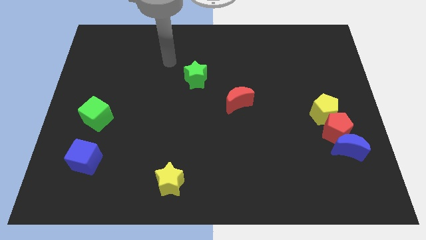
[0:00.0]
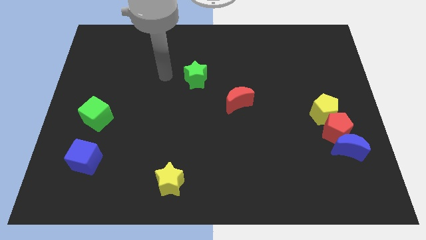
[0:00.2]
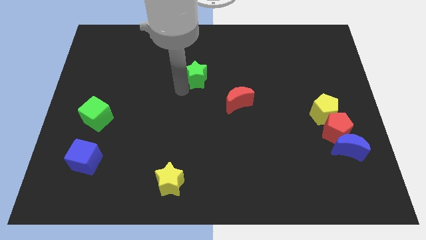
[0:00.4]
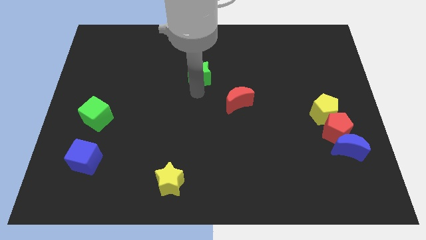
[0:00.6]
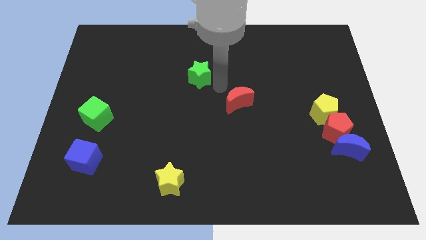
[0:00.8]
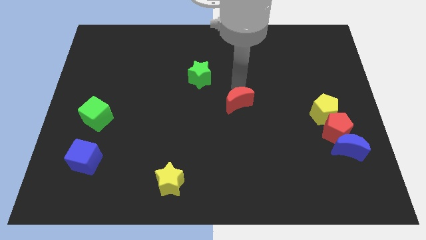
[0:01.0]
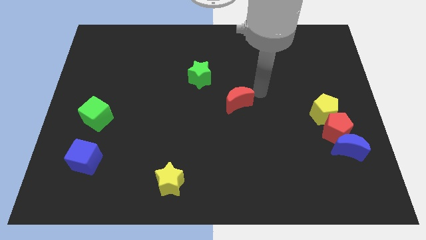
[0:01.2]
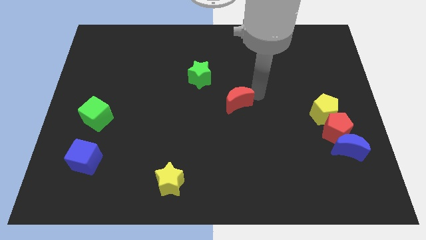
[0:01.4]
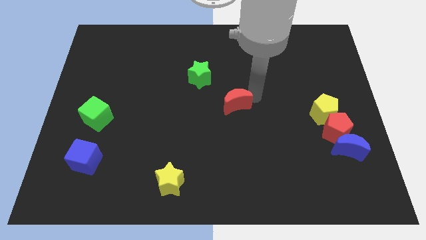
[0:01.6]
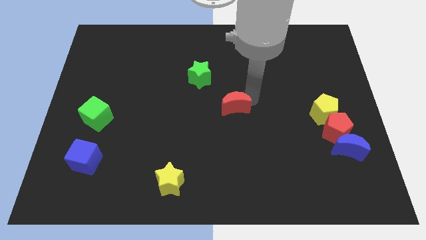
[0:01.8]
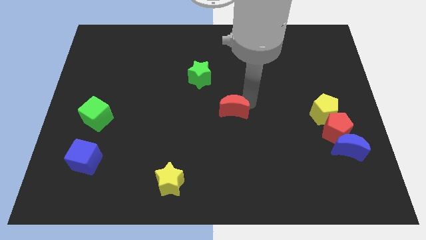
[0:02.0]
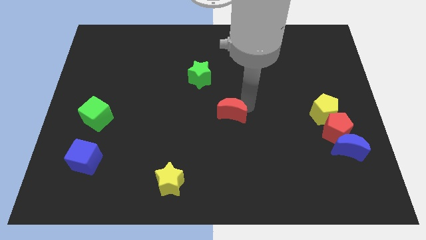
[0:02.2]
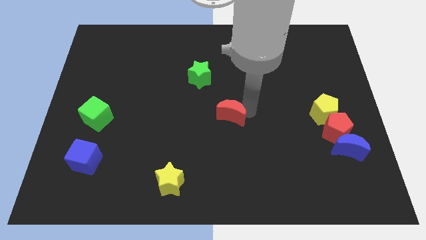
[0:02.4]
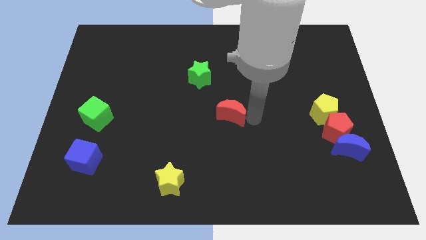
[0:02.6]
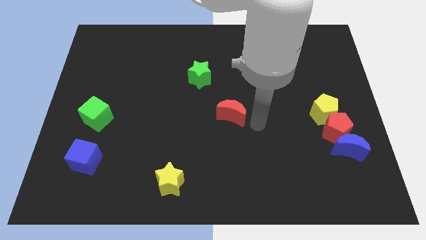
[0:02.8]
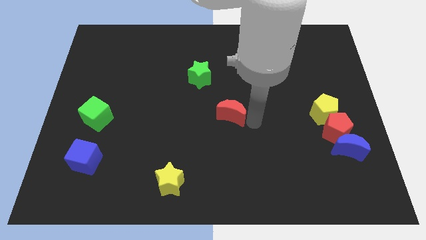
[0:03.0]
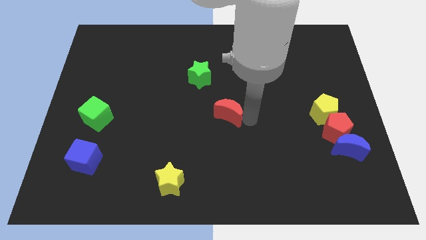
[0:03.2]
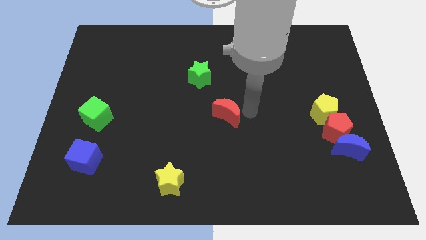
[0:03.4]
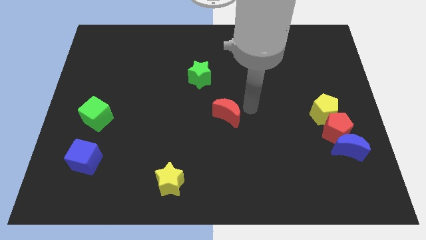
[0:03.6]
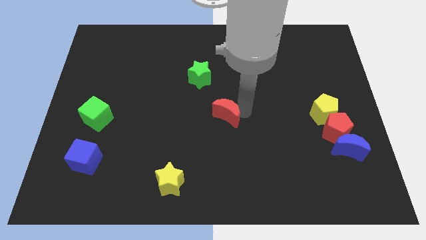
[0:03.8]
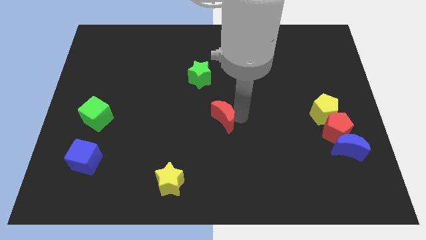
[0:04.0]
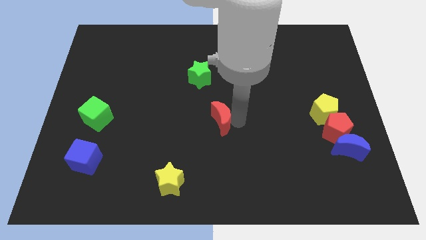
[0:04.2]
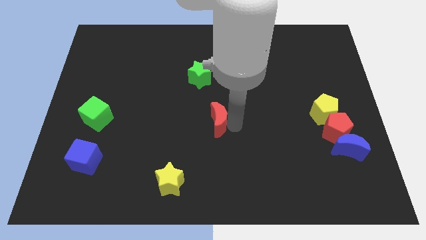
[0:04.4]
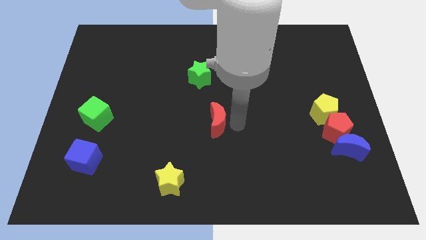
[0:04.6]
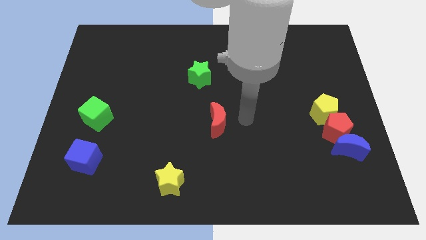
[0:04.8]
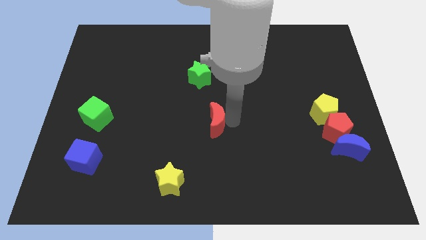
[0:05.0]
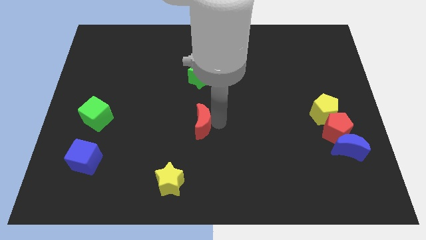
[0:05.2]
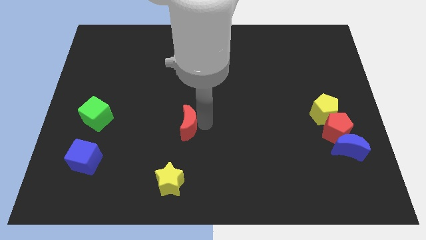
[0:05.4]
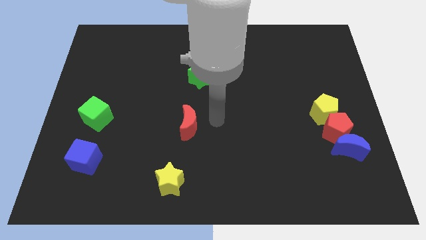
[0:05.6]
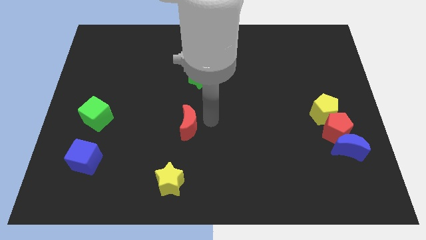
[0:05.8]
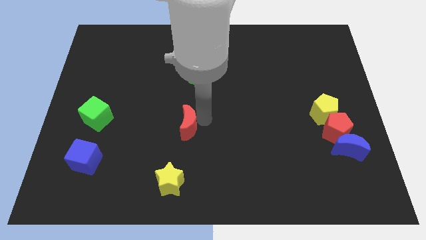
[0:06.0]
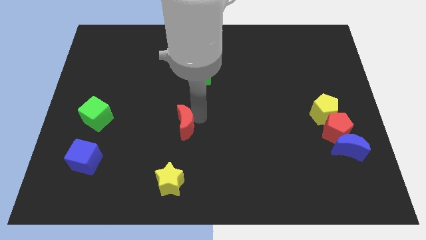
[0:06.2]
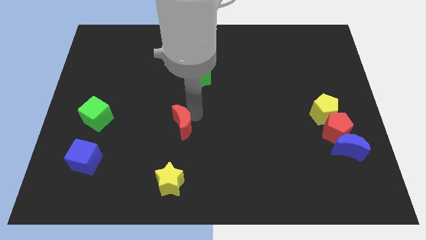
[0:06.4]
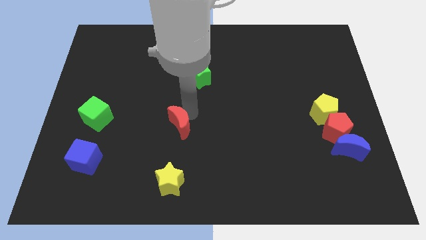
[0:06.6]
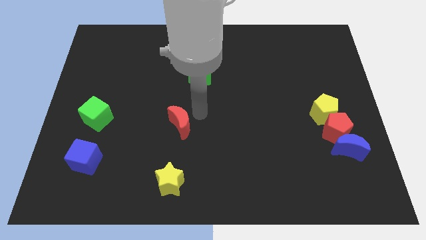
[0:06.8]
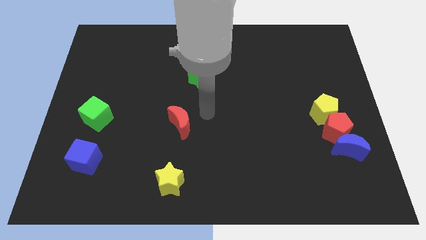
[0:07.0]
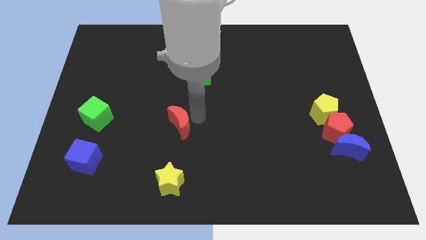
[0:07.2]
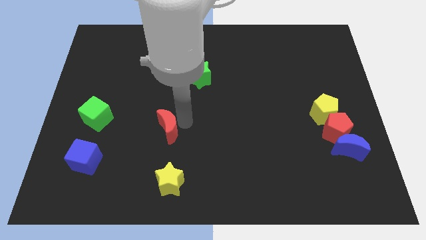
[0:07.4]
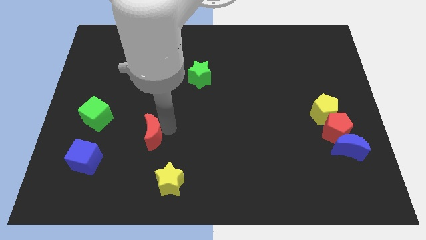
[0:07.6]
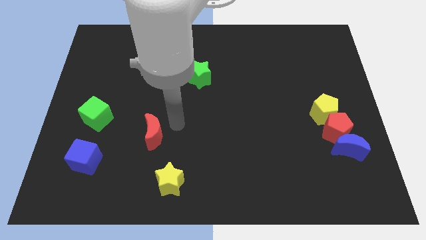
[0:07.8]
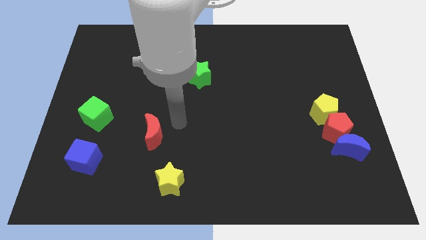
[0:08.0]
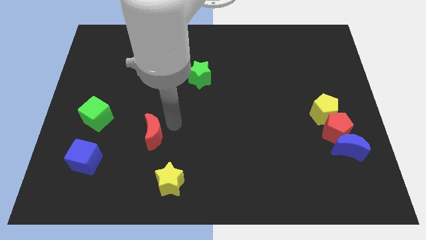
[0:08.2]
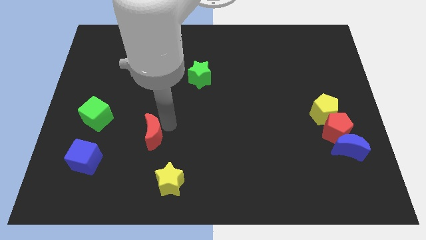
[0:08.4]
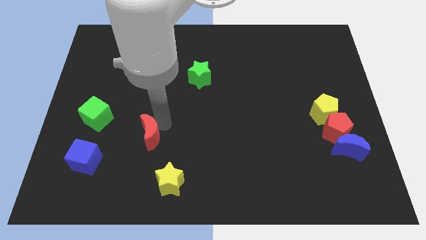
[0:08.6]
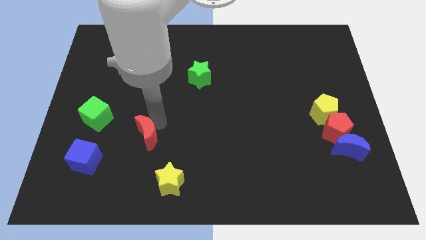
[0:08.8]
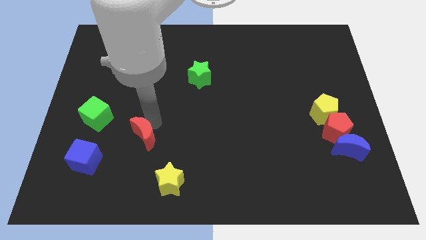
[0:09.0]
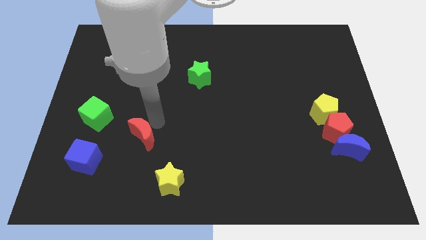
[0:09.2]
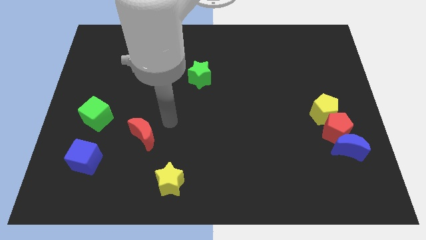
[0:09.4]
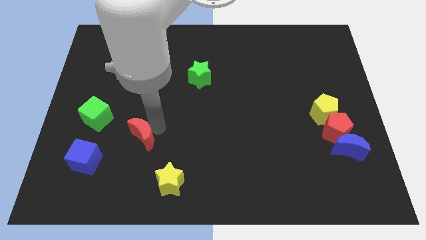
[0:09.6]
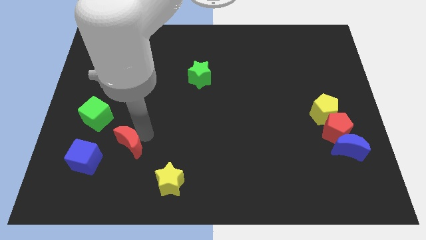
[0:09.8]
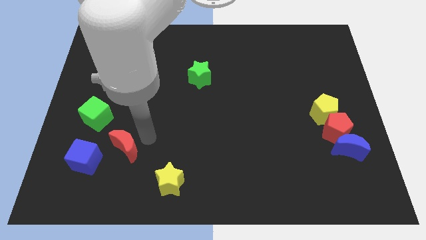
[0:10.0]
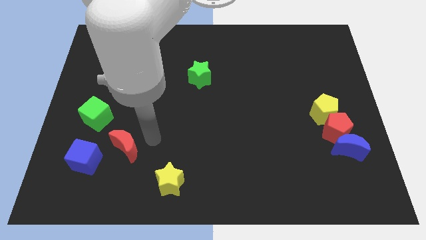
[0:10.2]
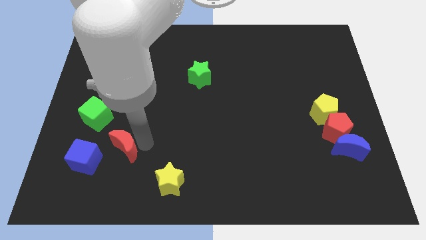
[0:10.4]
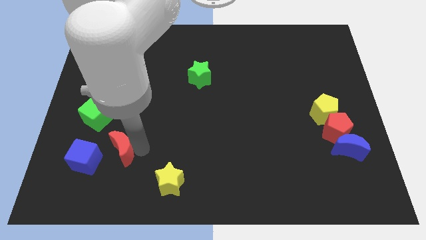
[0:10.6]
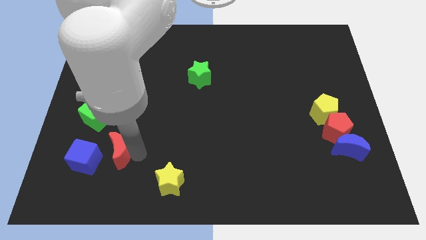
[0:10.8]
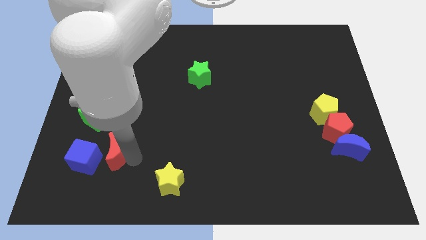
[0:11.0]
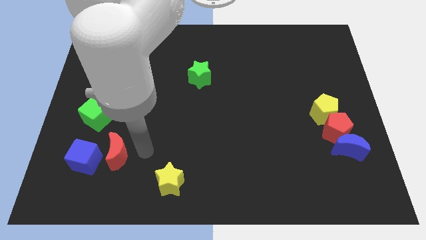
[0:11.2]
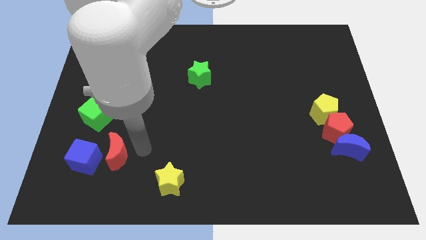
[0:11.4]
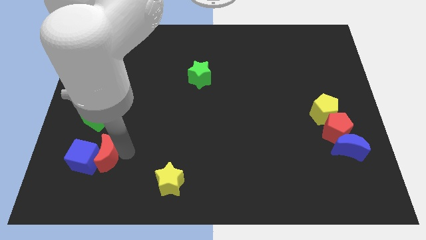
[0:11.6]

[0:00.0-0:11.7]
move the red moon next to the blue cube

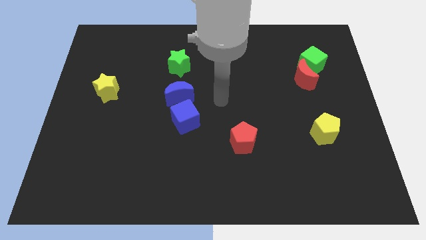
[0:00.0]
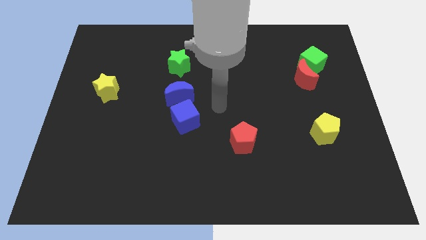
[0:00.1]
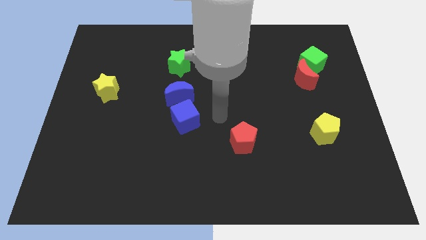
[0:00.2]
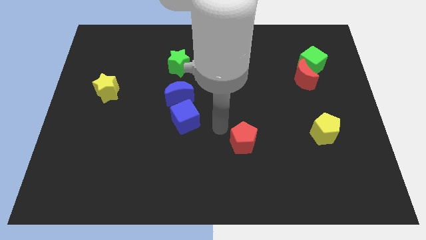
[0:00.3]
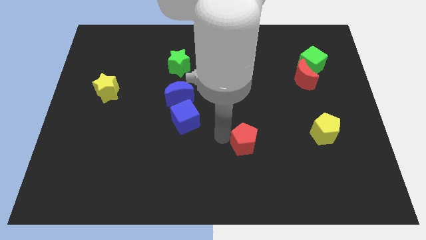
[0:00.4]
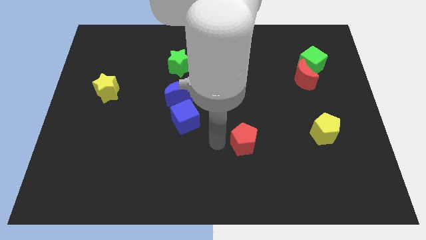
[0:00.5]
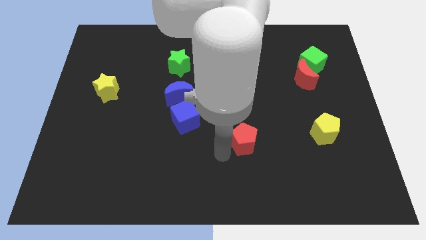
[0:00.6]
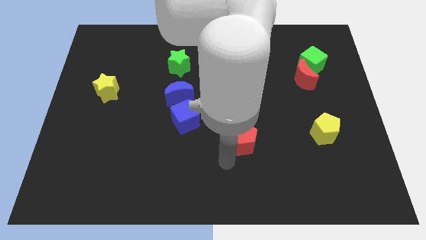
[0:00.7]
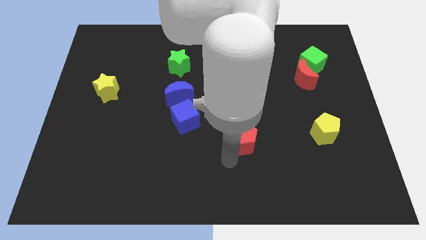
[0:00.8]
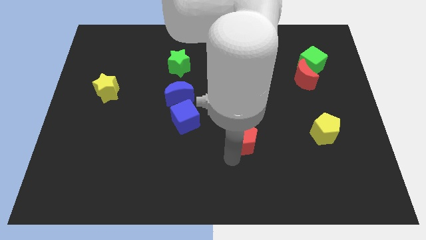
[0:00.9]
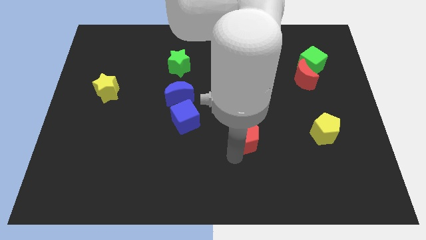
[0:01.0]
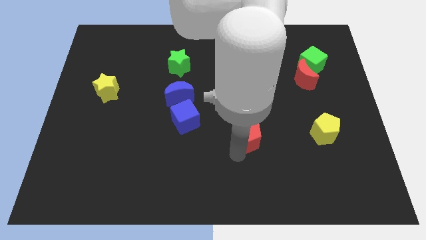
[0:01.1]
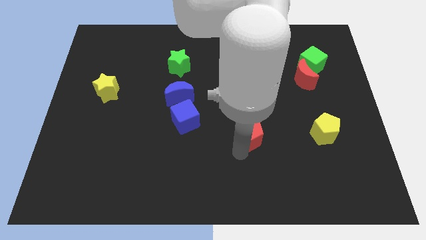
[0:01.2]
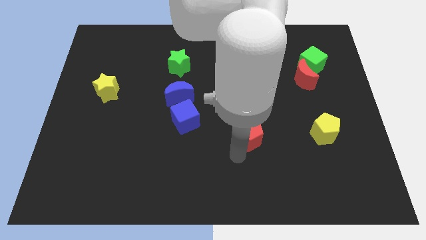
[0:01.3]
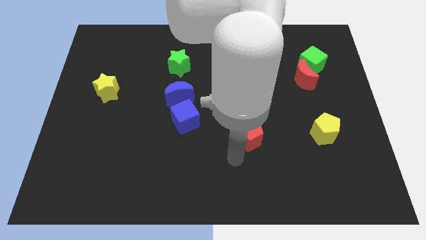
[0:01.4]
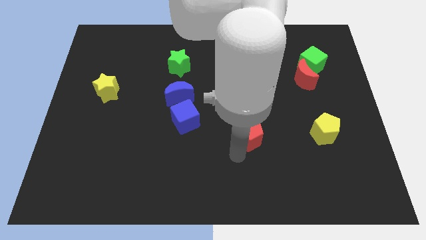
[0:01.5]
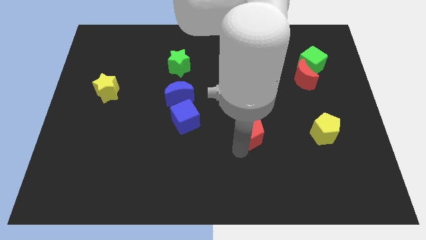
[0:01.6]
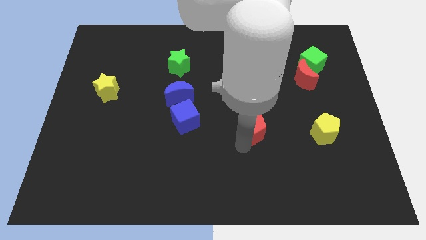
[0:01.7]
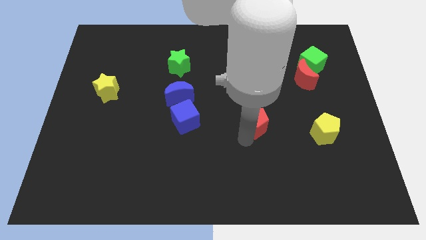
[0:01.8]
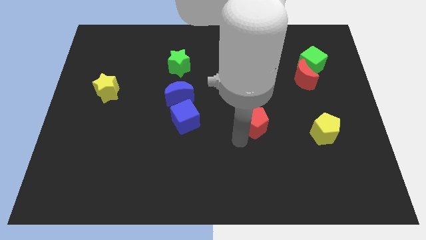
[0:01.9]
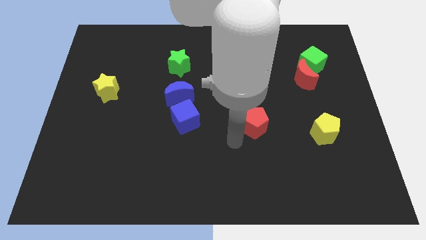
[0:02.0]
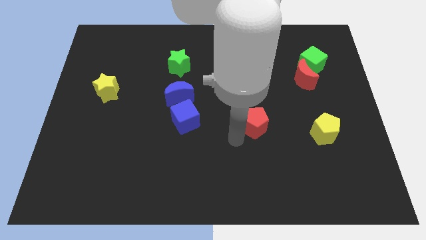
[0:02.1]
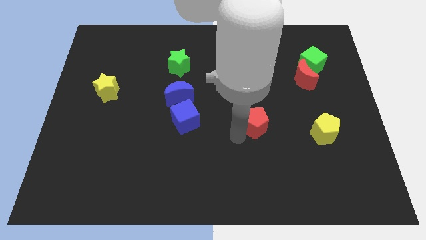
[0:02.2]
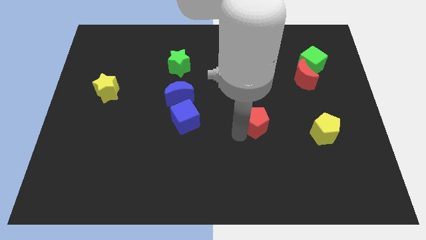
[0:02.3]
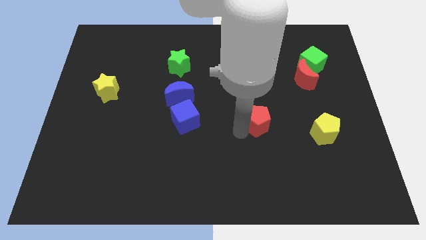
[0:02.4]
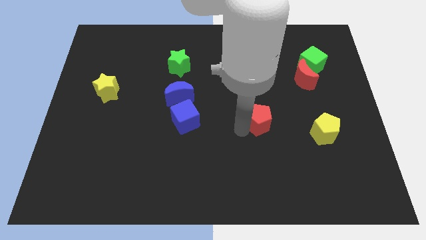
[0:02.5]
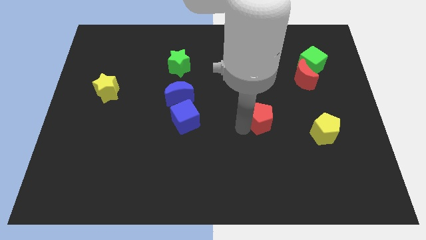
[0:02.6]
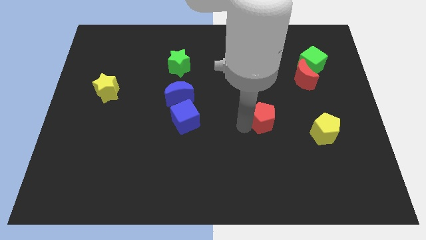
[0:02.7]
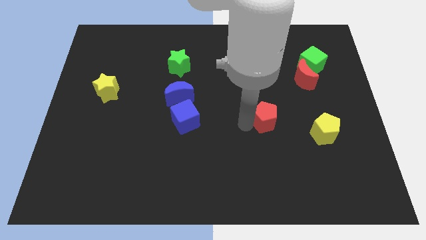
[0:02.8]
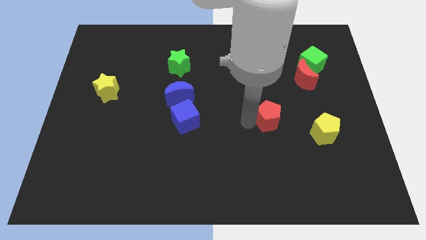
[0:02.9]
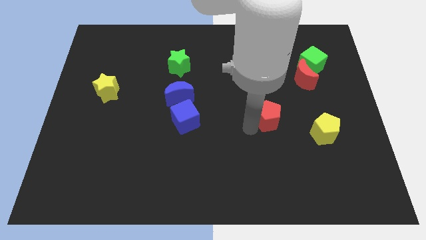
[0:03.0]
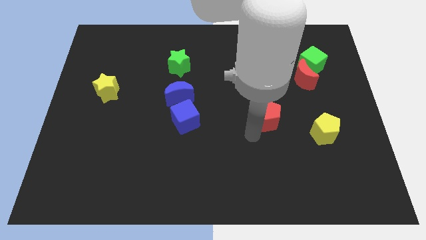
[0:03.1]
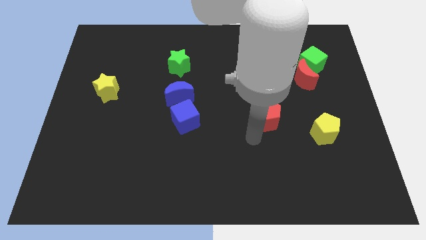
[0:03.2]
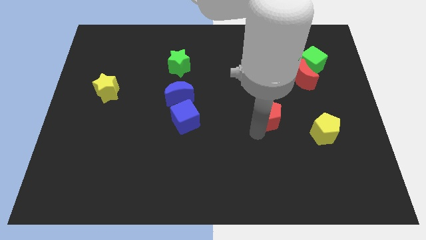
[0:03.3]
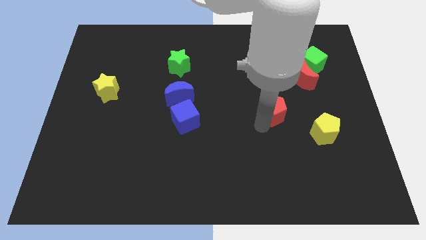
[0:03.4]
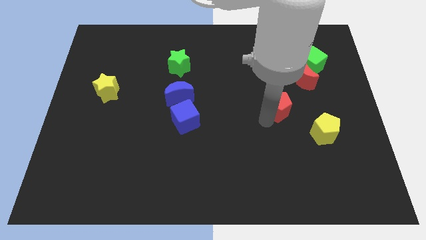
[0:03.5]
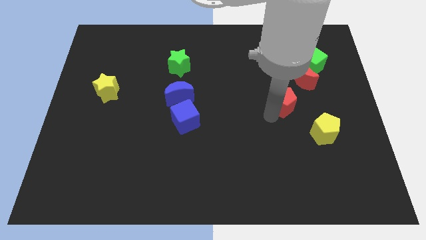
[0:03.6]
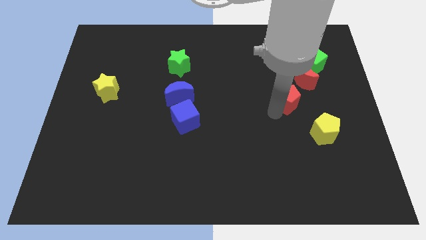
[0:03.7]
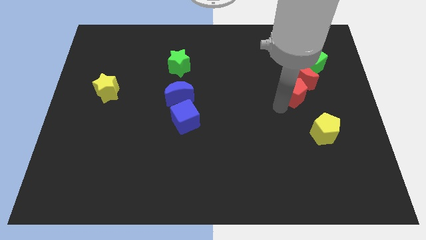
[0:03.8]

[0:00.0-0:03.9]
move the red pentagon next to the red moon
